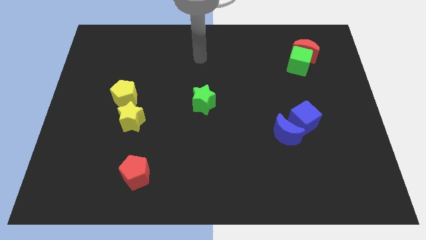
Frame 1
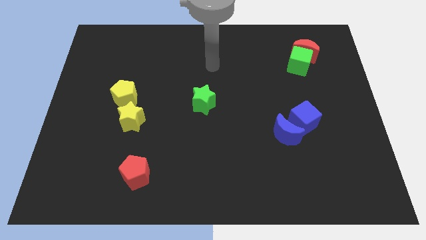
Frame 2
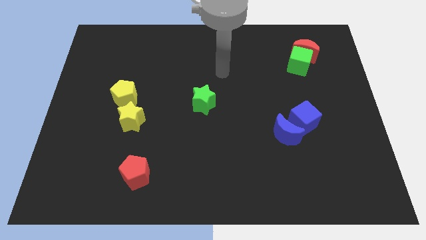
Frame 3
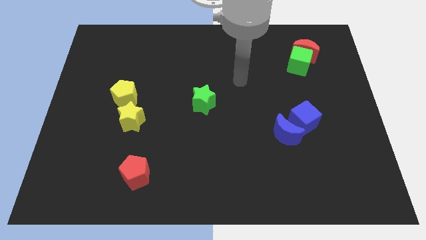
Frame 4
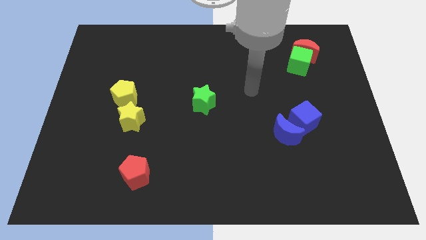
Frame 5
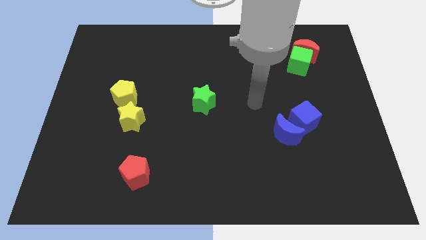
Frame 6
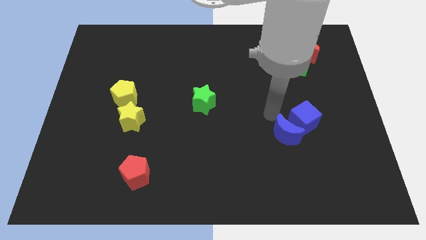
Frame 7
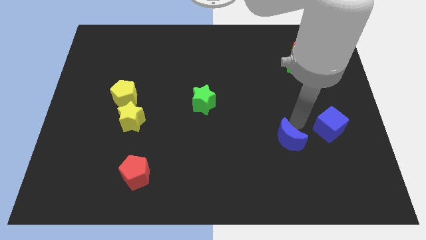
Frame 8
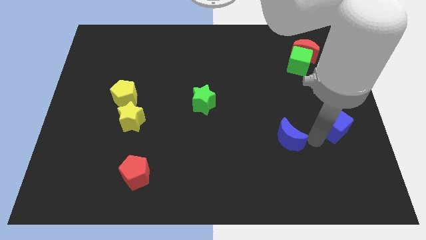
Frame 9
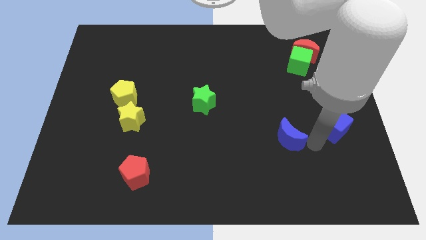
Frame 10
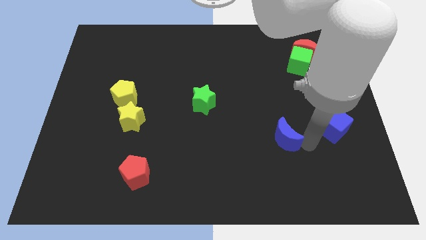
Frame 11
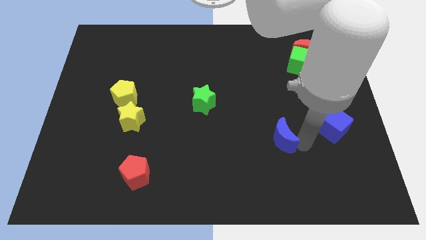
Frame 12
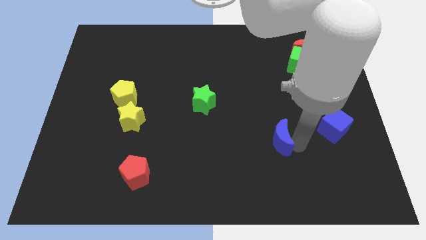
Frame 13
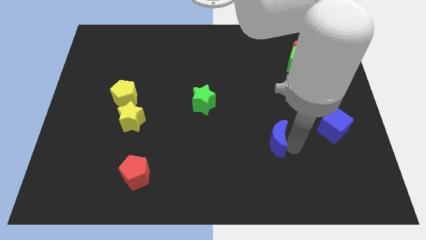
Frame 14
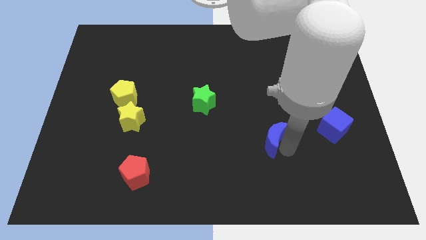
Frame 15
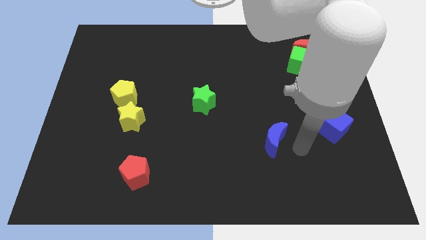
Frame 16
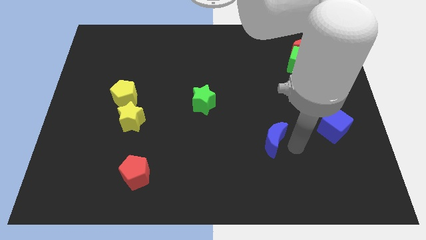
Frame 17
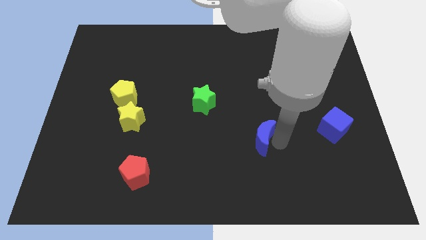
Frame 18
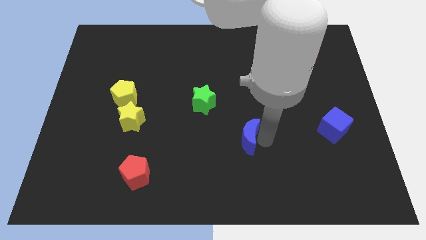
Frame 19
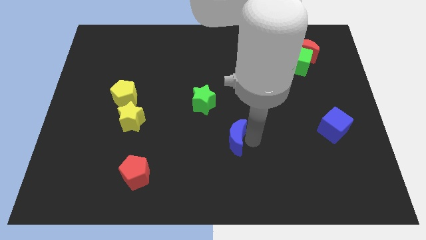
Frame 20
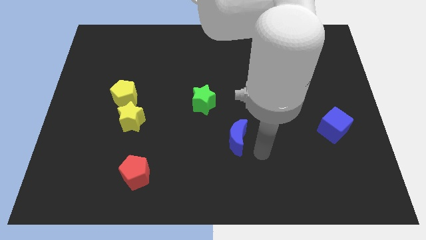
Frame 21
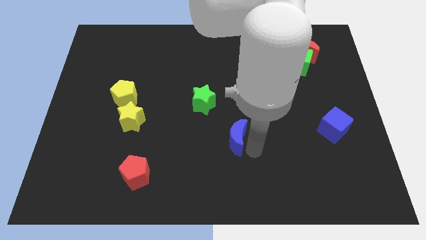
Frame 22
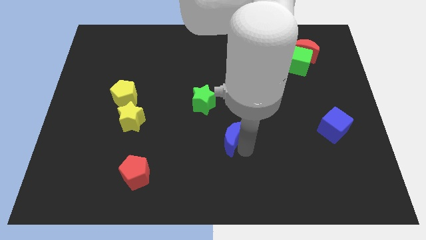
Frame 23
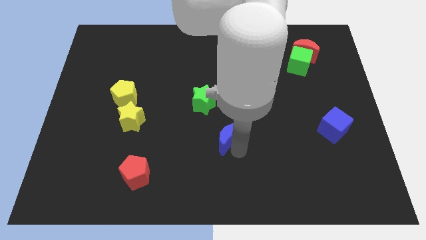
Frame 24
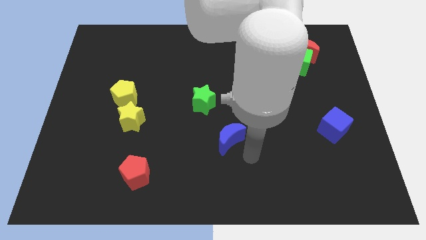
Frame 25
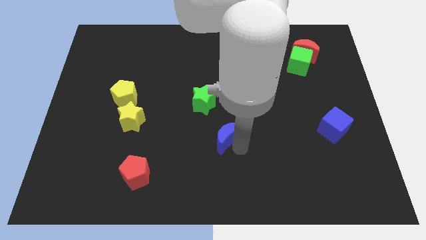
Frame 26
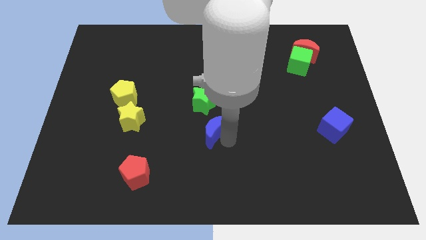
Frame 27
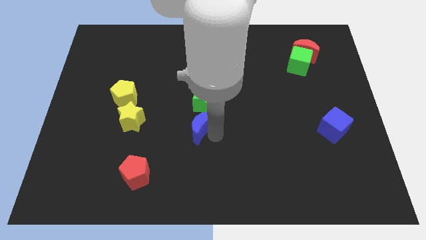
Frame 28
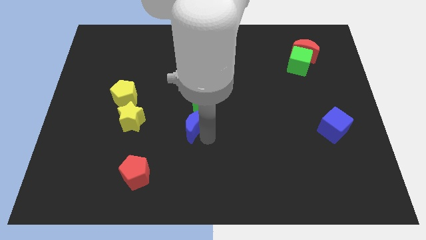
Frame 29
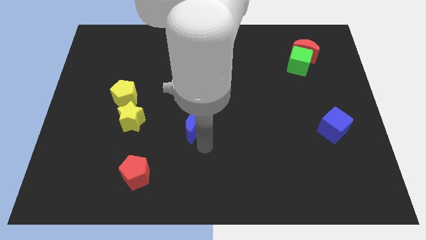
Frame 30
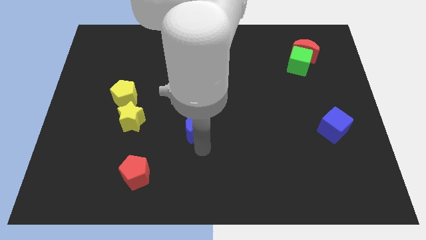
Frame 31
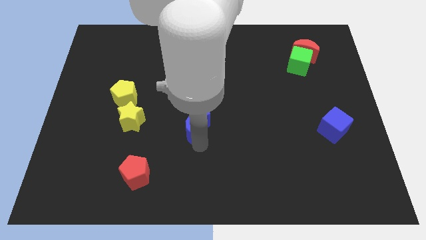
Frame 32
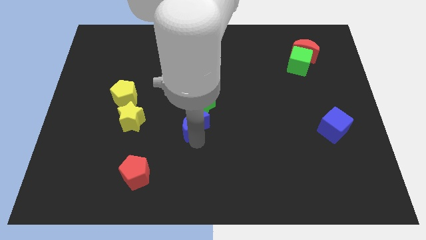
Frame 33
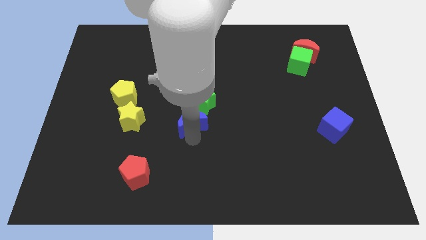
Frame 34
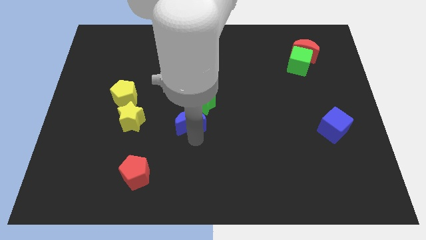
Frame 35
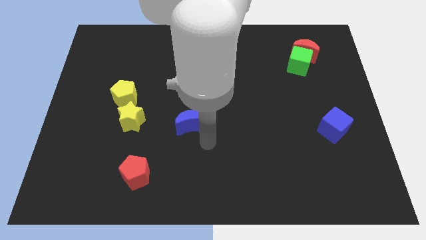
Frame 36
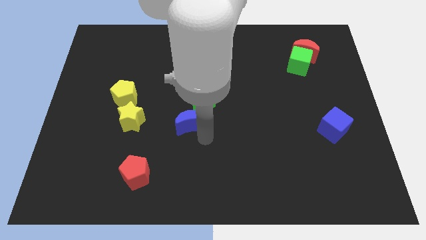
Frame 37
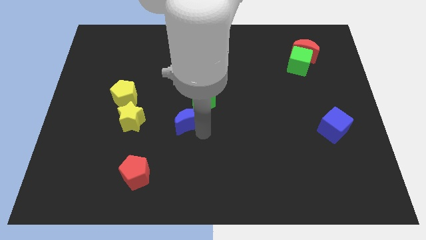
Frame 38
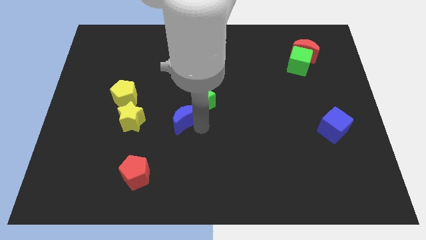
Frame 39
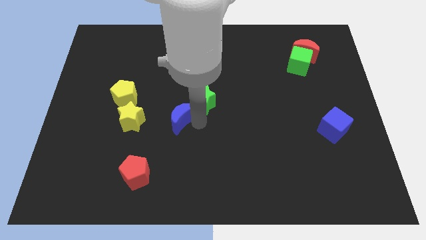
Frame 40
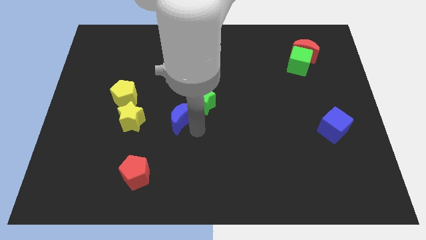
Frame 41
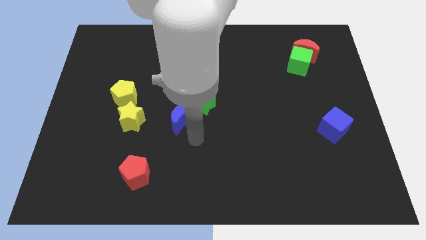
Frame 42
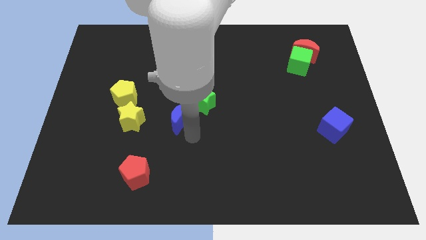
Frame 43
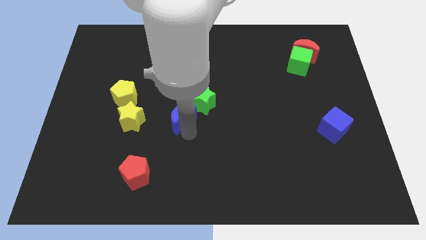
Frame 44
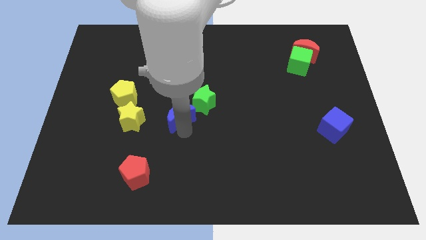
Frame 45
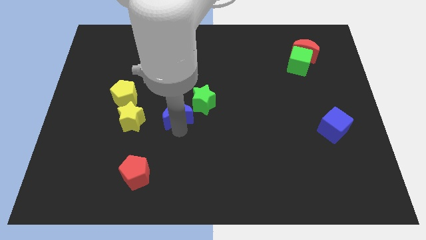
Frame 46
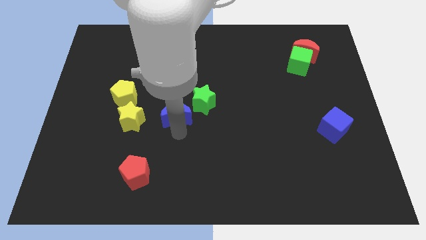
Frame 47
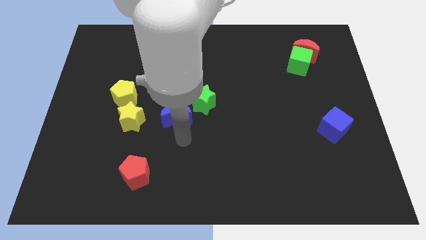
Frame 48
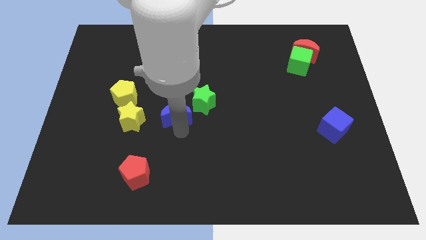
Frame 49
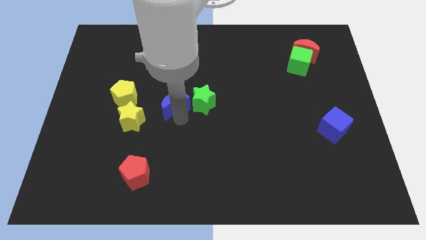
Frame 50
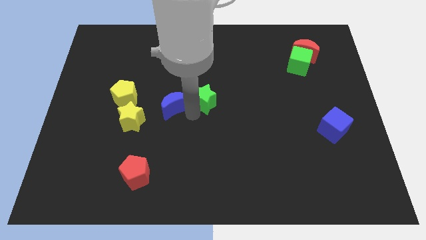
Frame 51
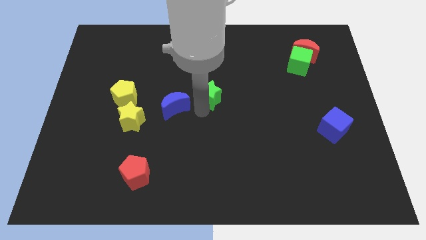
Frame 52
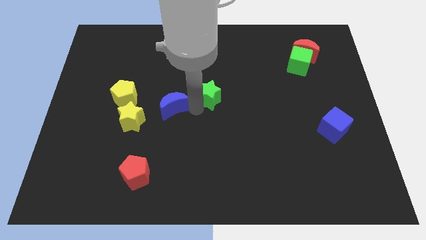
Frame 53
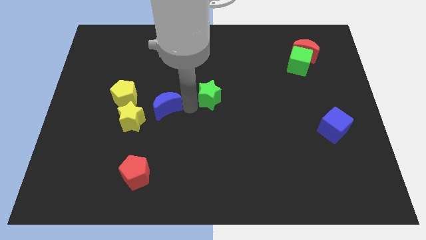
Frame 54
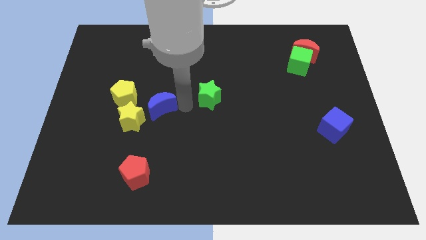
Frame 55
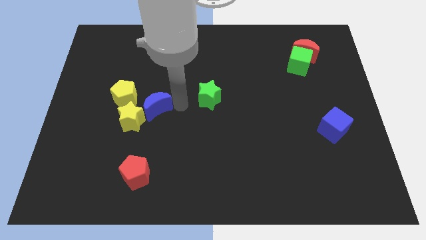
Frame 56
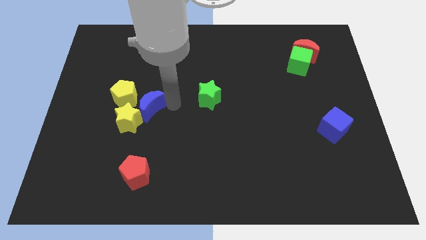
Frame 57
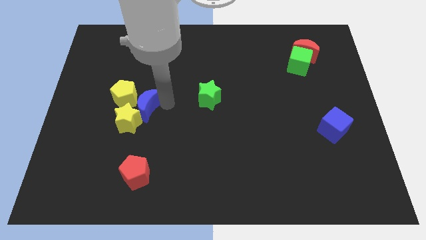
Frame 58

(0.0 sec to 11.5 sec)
move the blue moon close to the yellow pentagon

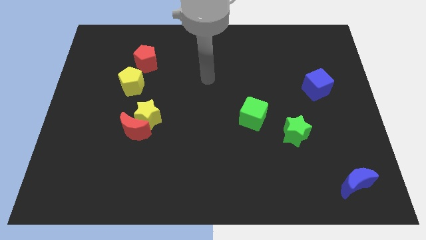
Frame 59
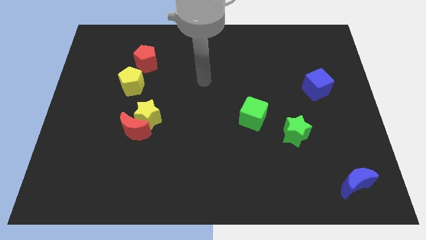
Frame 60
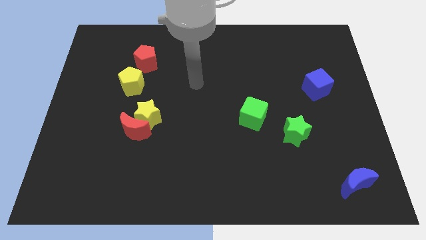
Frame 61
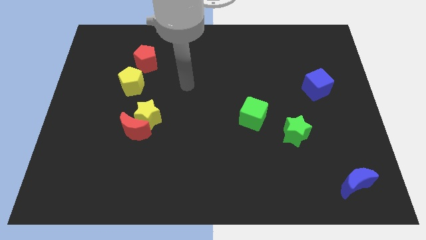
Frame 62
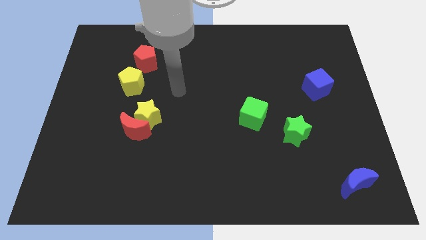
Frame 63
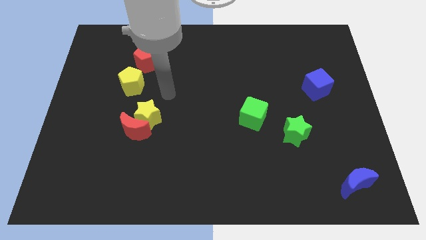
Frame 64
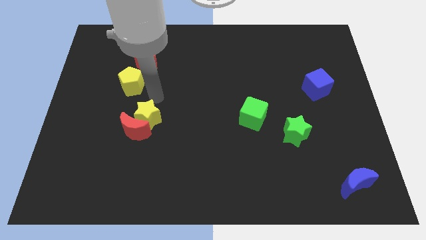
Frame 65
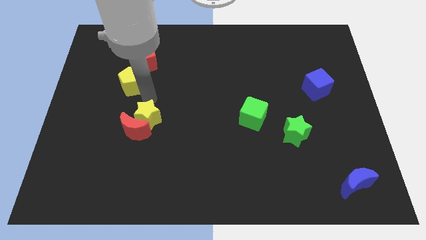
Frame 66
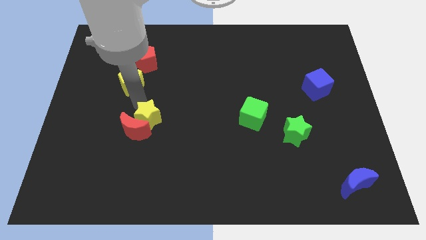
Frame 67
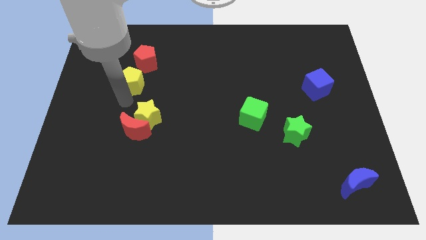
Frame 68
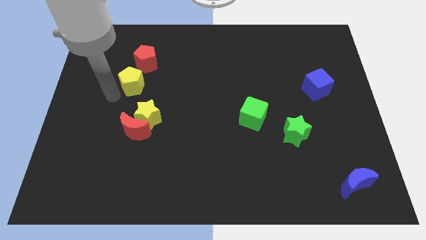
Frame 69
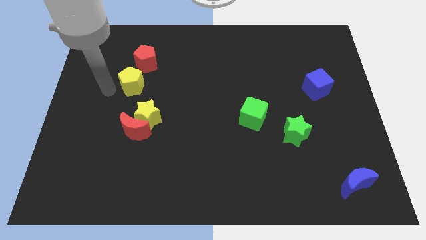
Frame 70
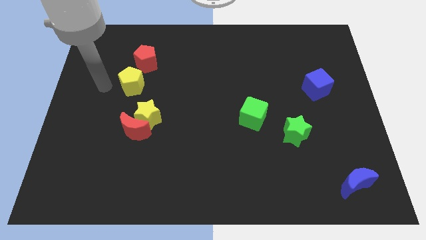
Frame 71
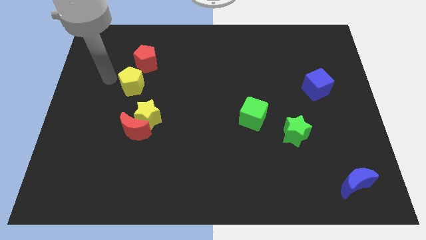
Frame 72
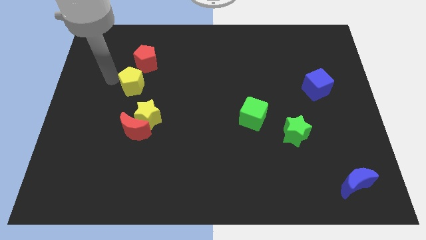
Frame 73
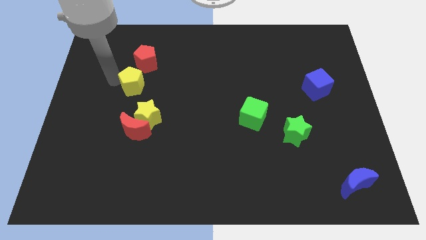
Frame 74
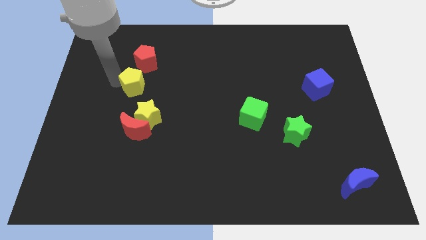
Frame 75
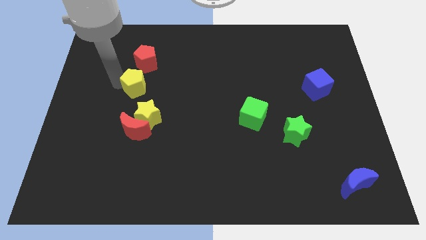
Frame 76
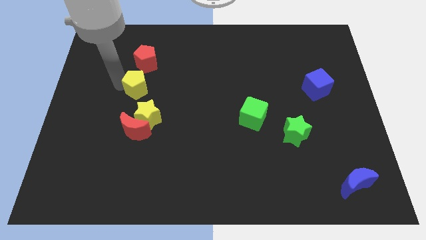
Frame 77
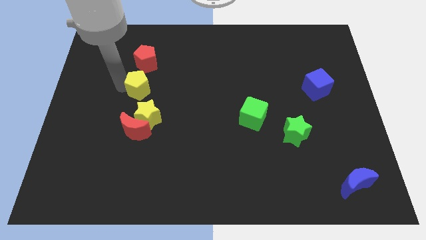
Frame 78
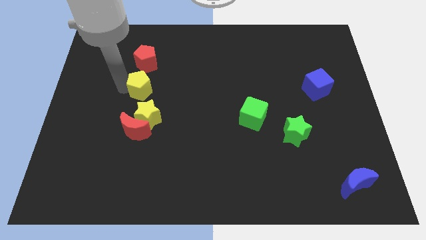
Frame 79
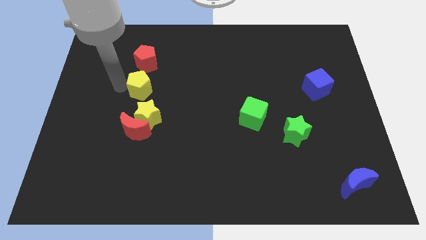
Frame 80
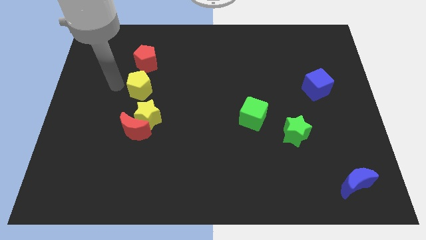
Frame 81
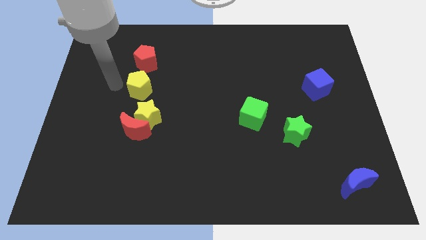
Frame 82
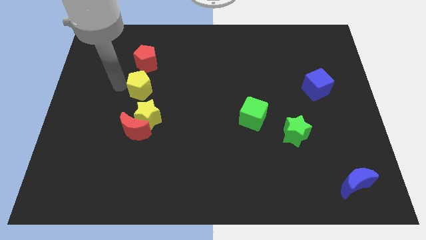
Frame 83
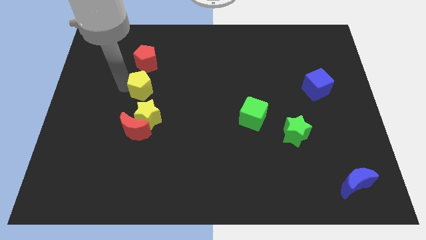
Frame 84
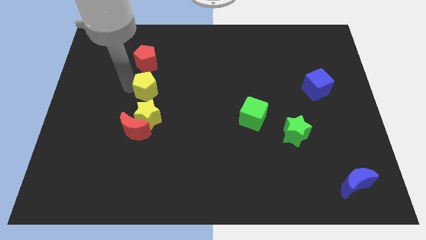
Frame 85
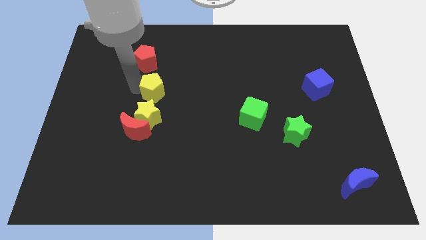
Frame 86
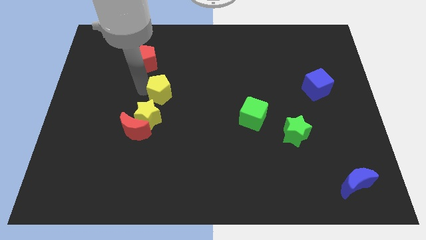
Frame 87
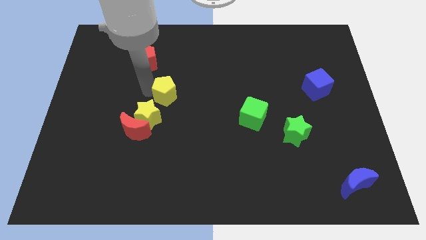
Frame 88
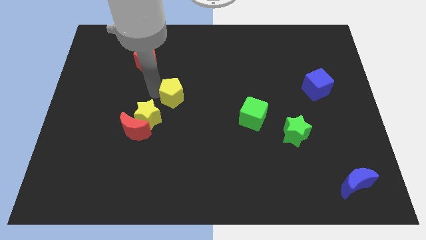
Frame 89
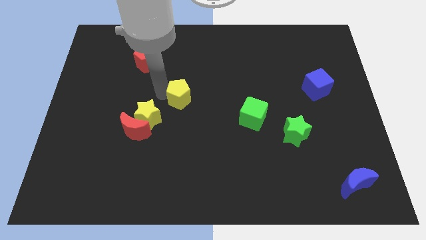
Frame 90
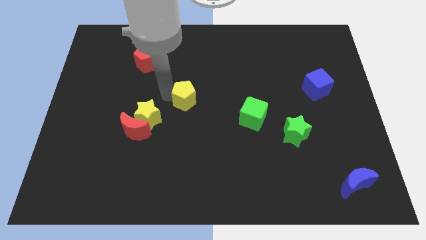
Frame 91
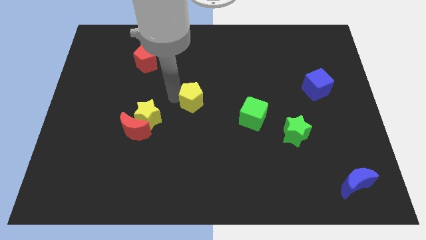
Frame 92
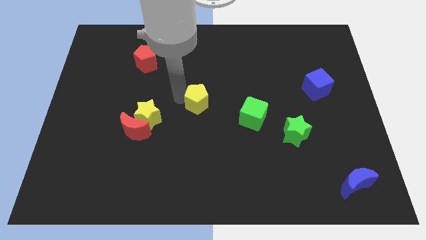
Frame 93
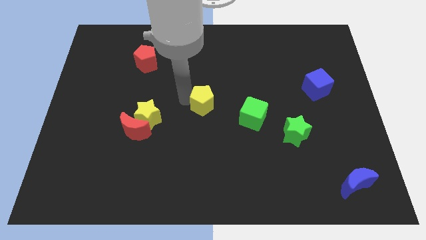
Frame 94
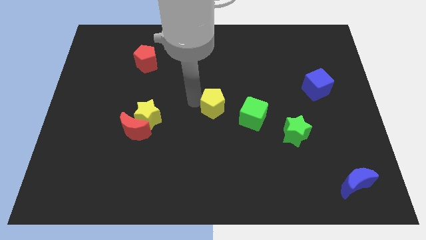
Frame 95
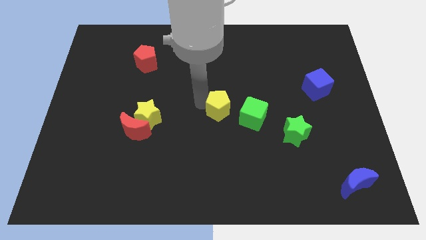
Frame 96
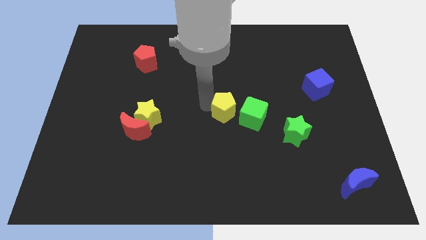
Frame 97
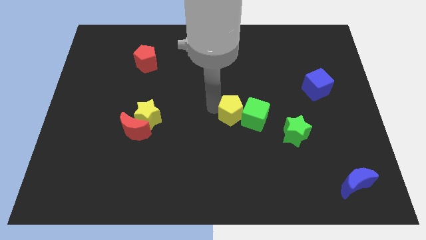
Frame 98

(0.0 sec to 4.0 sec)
move the yellow pentagon next to the green cube
